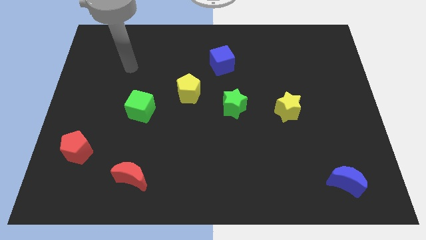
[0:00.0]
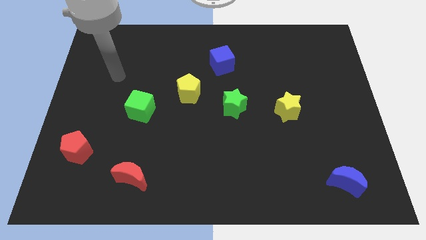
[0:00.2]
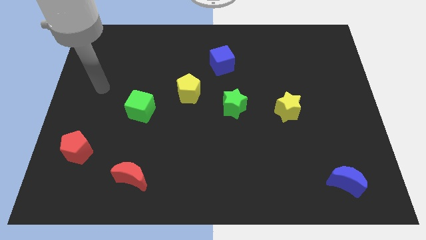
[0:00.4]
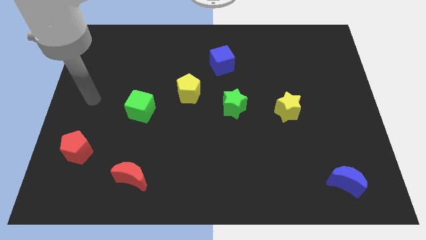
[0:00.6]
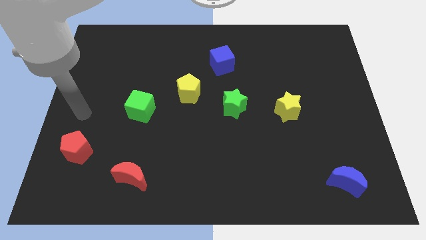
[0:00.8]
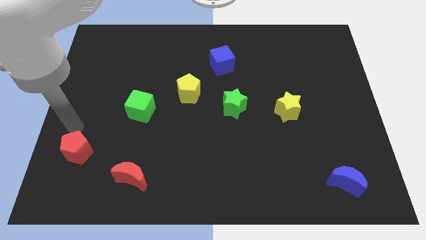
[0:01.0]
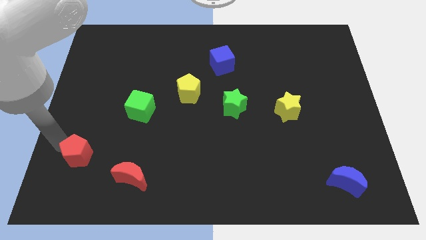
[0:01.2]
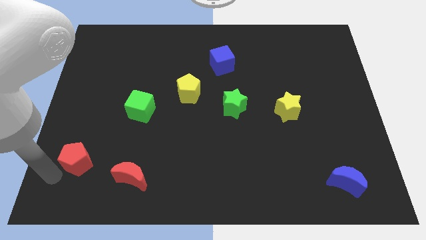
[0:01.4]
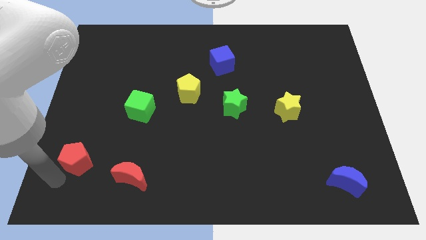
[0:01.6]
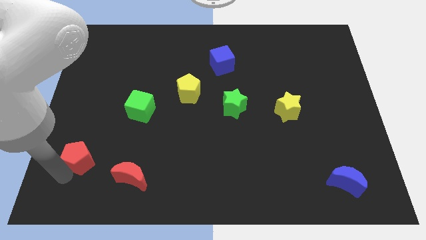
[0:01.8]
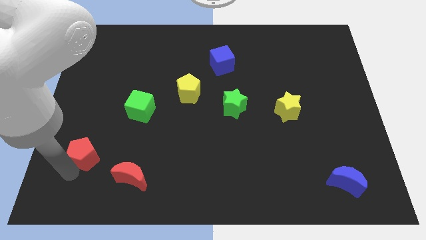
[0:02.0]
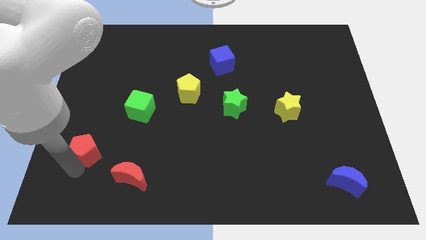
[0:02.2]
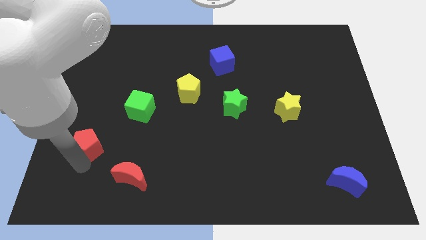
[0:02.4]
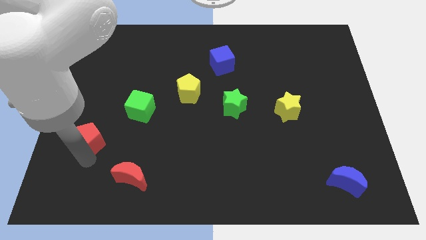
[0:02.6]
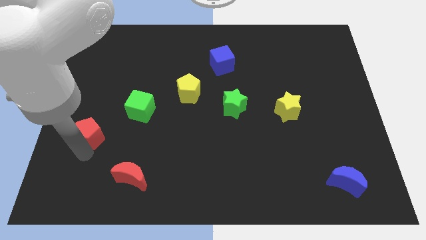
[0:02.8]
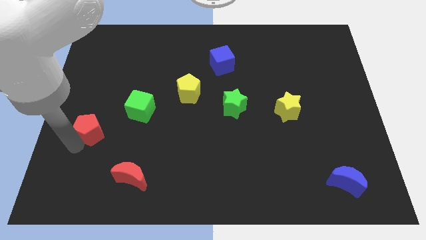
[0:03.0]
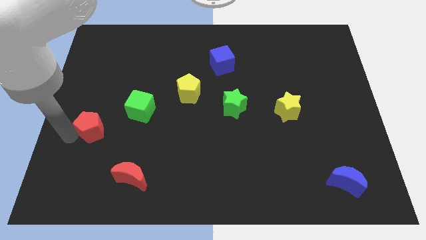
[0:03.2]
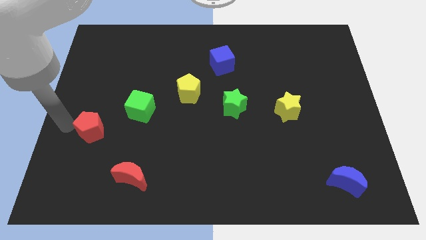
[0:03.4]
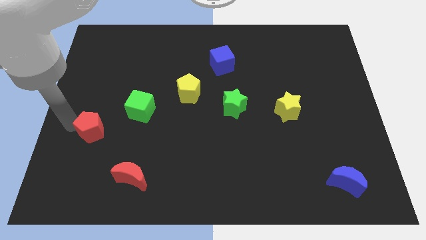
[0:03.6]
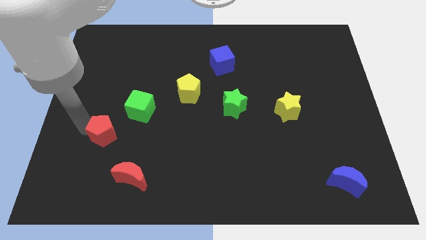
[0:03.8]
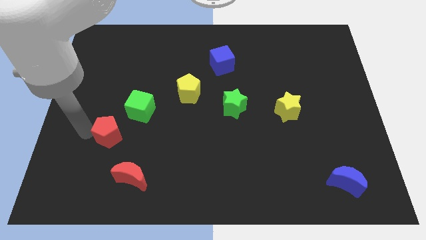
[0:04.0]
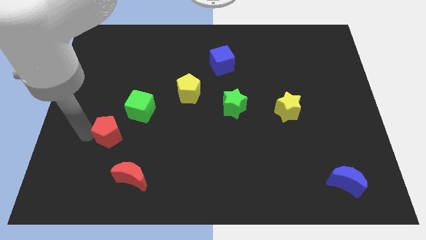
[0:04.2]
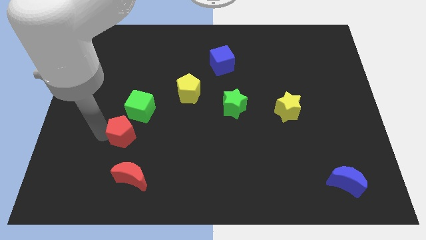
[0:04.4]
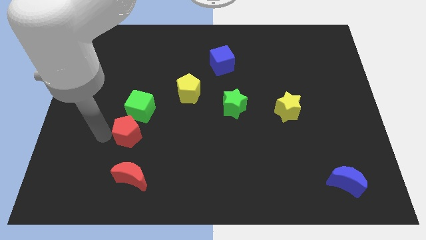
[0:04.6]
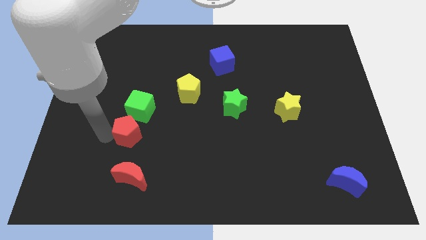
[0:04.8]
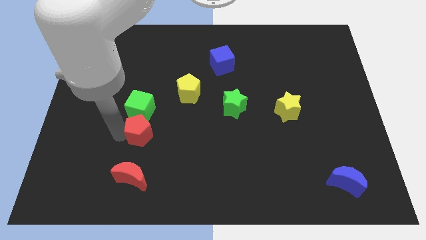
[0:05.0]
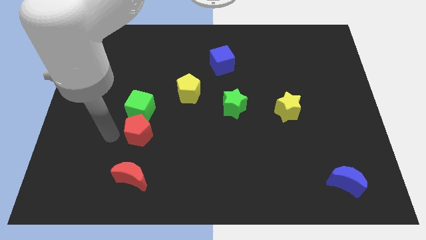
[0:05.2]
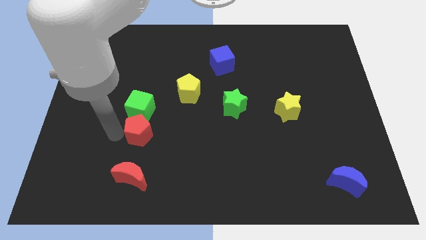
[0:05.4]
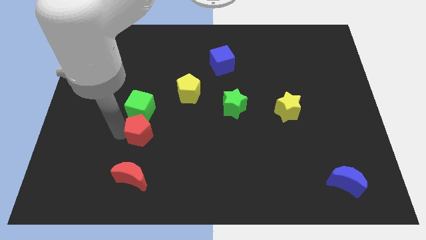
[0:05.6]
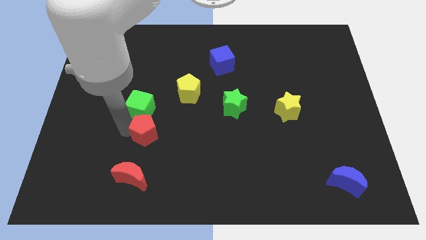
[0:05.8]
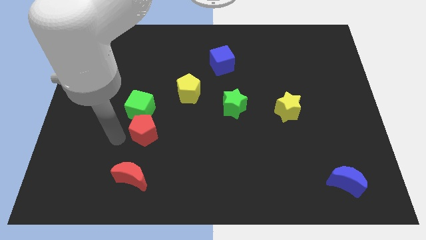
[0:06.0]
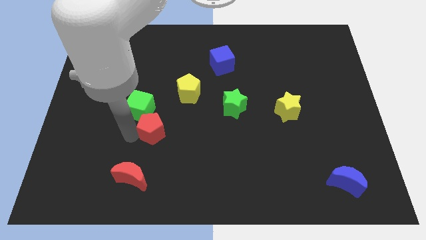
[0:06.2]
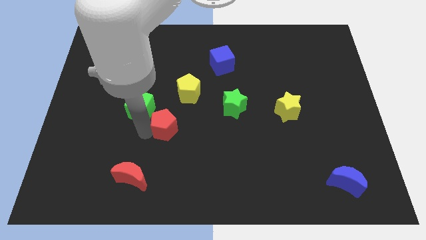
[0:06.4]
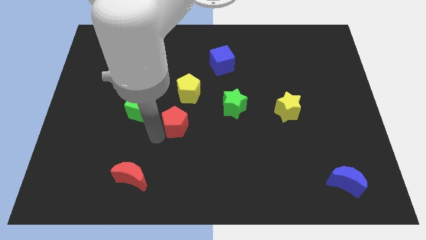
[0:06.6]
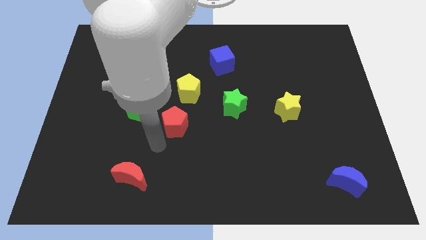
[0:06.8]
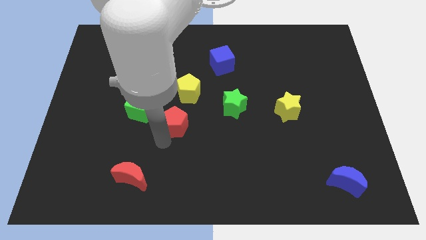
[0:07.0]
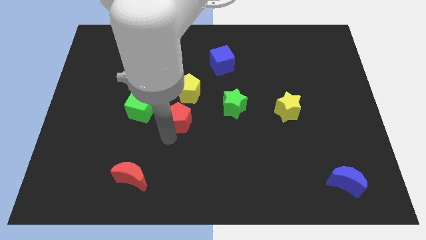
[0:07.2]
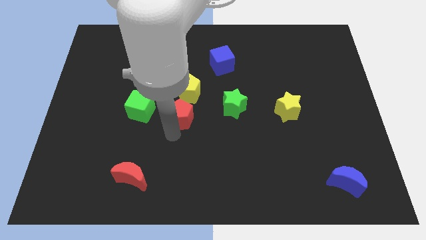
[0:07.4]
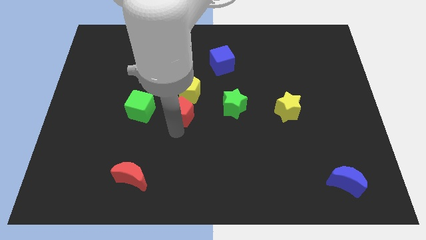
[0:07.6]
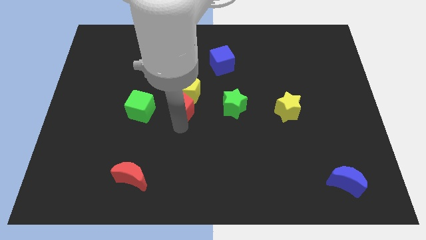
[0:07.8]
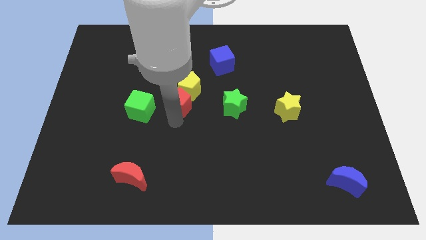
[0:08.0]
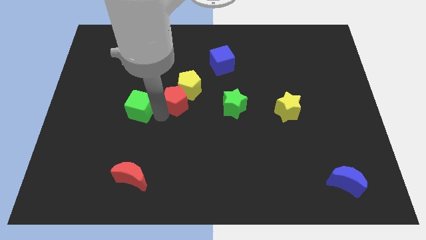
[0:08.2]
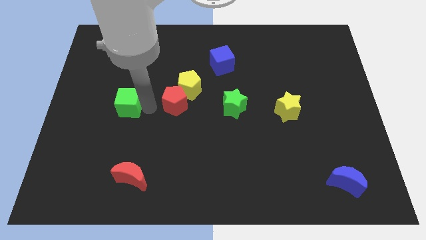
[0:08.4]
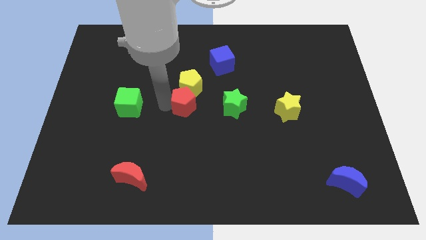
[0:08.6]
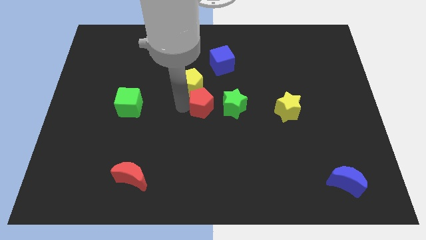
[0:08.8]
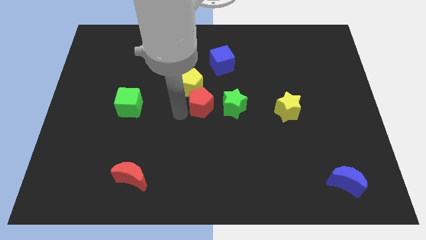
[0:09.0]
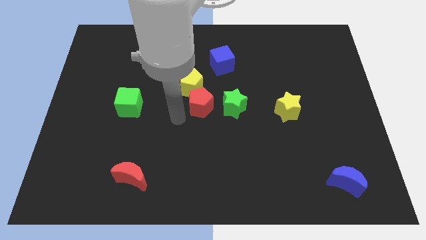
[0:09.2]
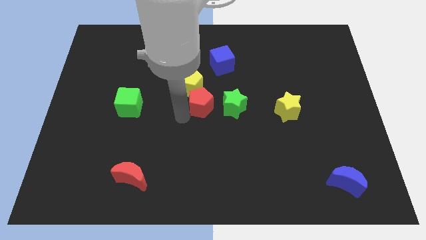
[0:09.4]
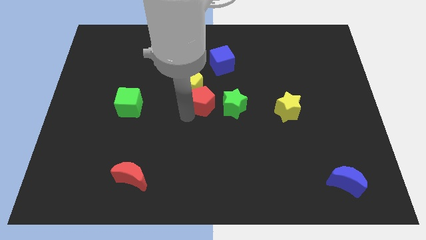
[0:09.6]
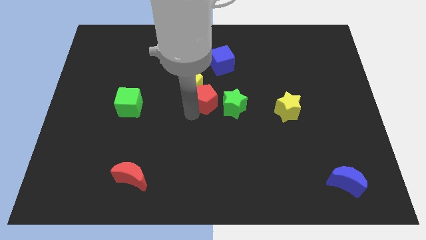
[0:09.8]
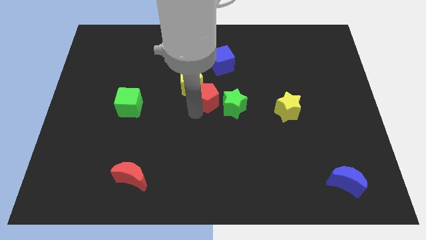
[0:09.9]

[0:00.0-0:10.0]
put the red pentagon to the right side of the yellow pentagon

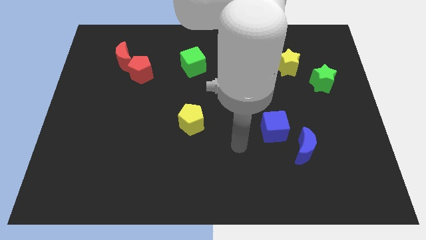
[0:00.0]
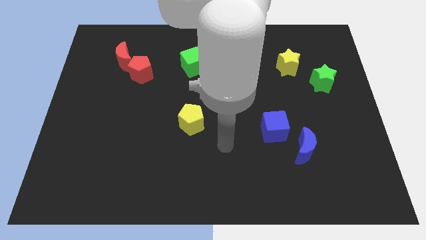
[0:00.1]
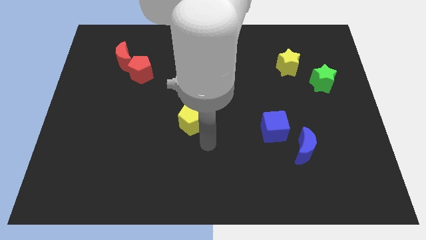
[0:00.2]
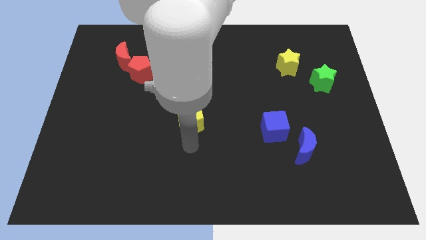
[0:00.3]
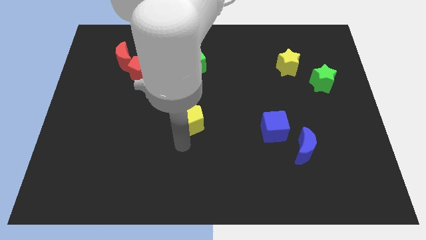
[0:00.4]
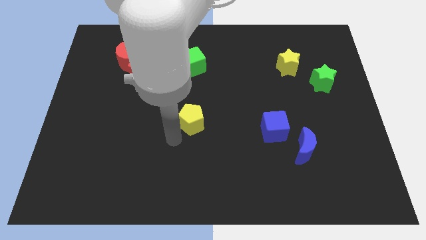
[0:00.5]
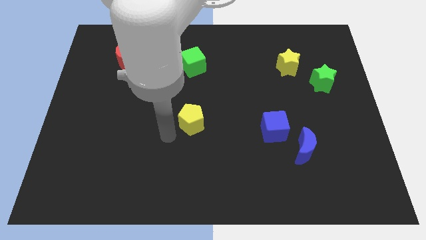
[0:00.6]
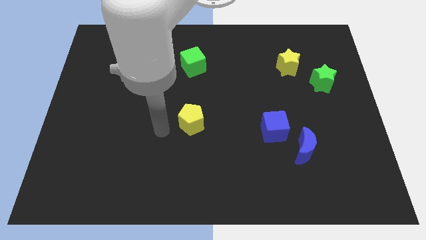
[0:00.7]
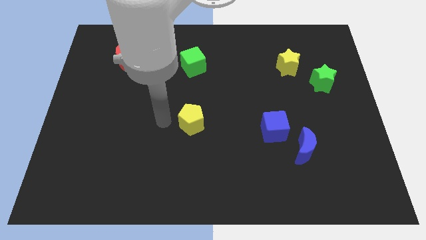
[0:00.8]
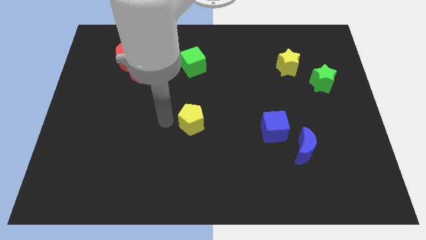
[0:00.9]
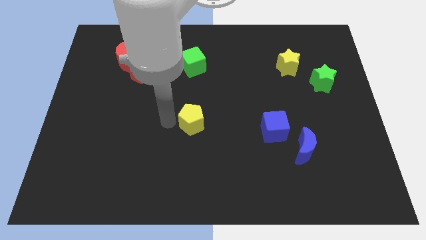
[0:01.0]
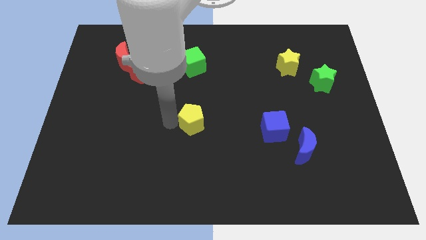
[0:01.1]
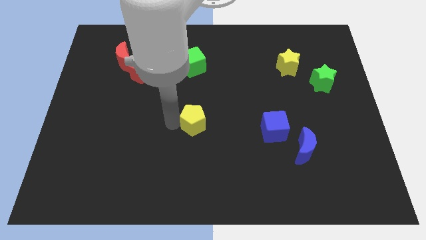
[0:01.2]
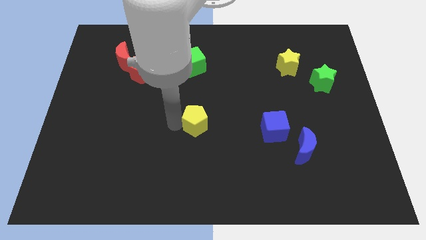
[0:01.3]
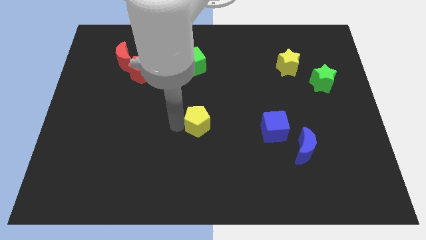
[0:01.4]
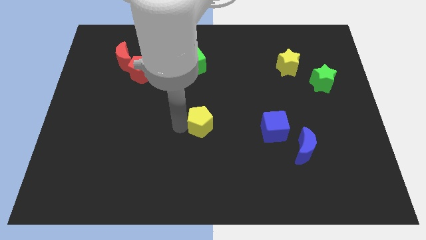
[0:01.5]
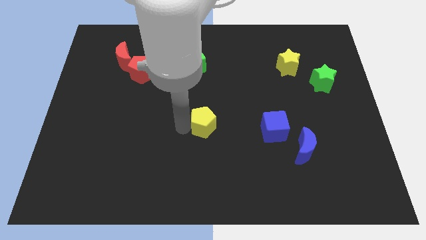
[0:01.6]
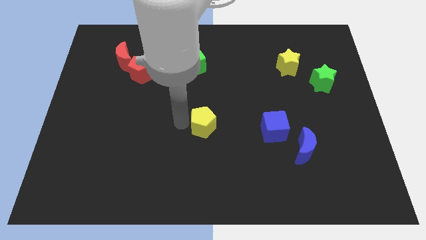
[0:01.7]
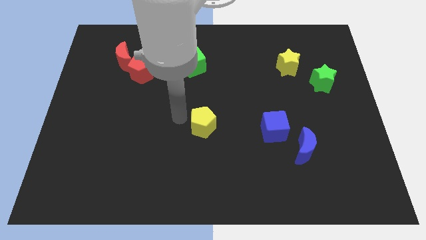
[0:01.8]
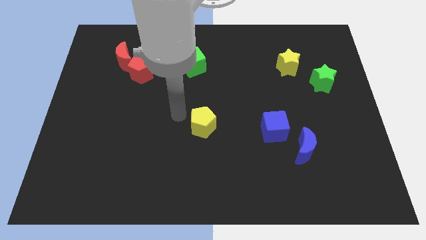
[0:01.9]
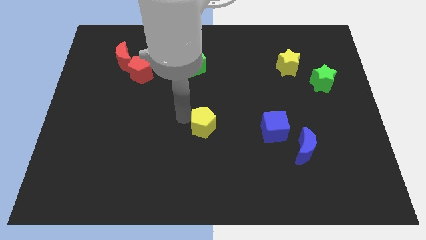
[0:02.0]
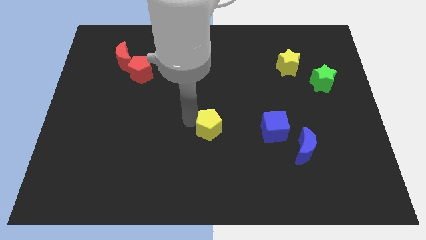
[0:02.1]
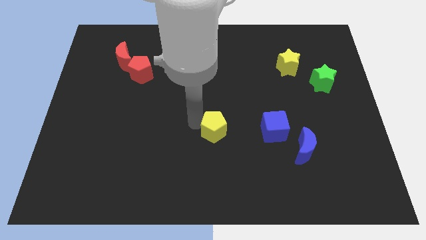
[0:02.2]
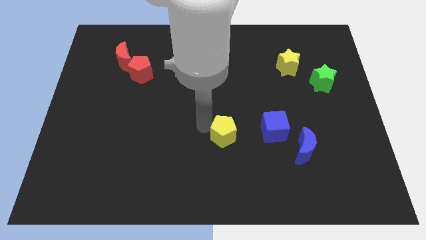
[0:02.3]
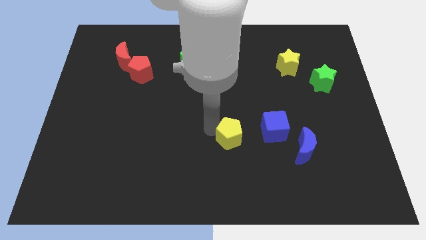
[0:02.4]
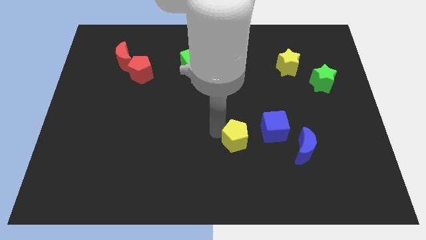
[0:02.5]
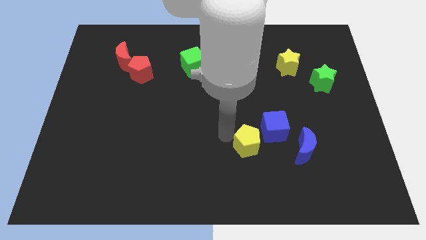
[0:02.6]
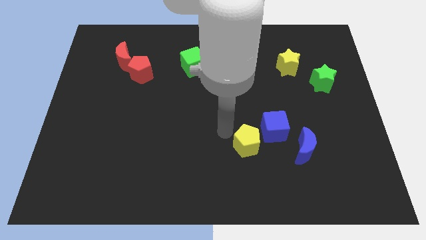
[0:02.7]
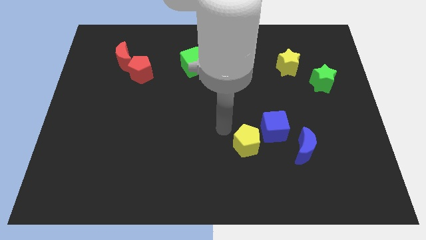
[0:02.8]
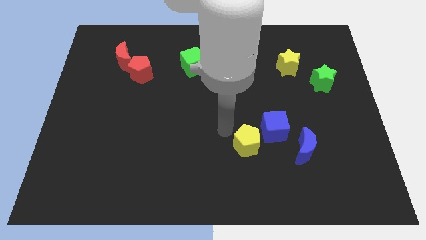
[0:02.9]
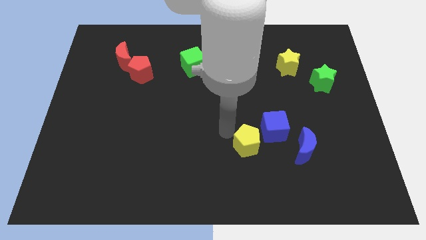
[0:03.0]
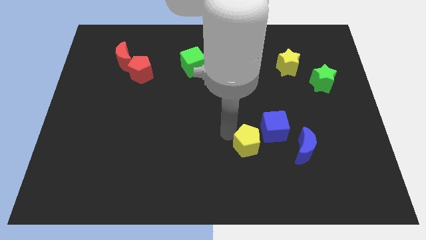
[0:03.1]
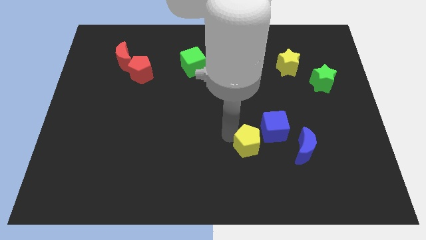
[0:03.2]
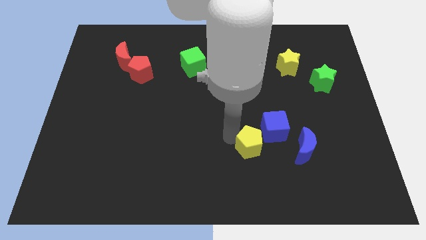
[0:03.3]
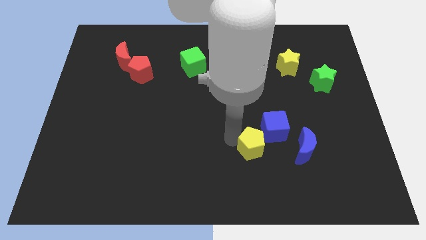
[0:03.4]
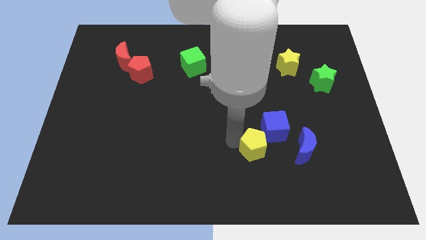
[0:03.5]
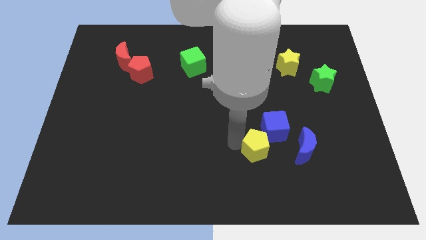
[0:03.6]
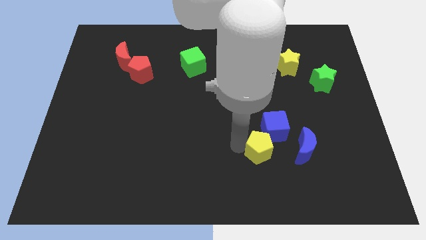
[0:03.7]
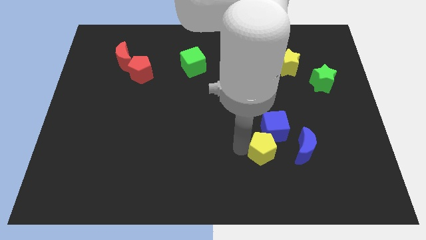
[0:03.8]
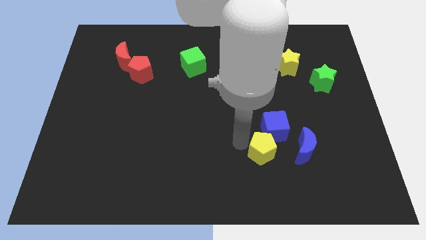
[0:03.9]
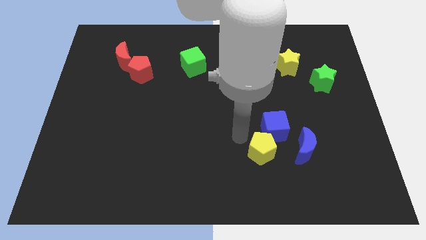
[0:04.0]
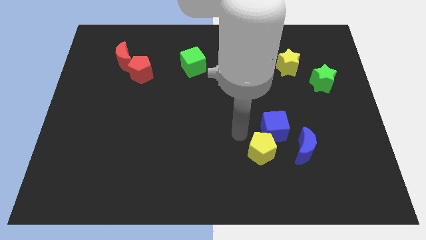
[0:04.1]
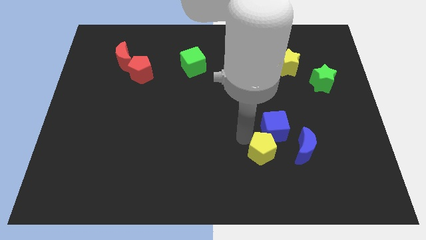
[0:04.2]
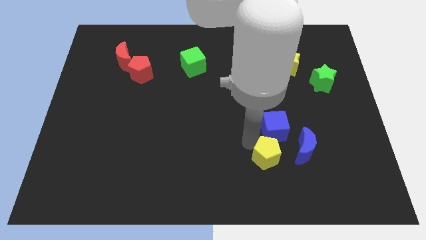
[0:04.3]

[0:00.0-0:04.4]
push the yellow pentagon to the bottom left side of the blue moon
